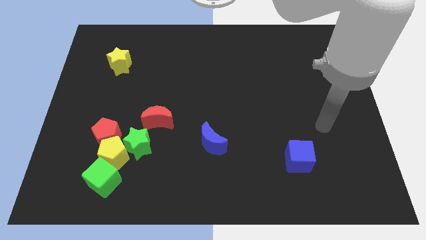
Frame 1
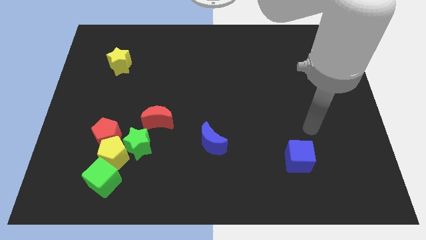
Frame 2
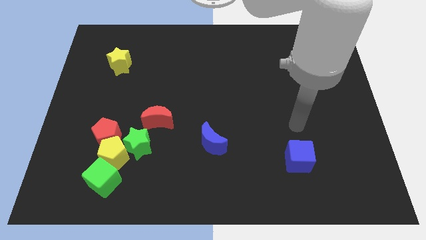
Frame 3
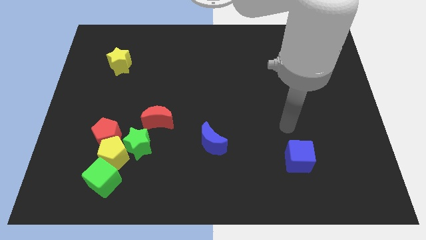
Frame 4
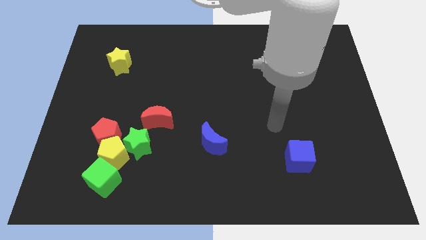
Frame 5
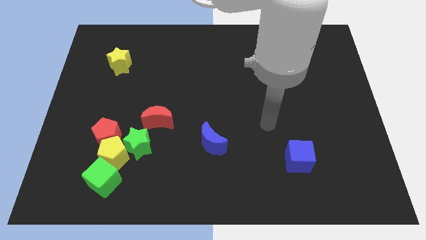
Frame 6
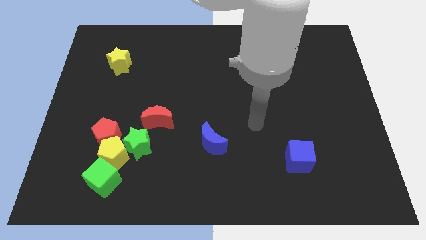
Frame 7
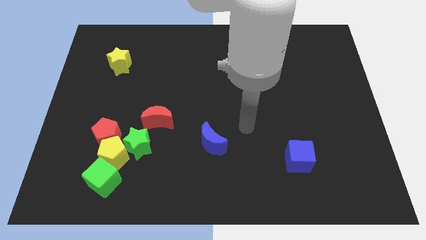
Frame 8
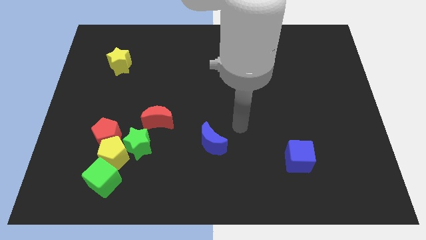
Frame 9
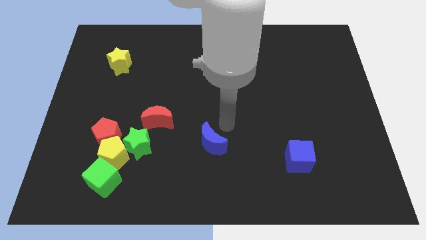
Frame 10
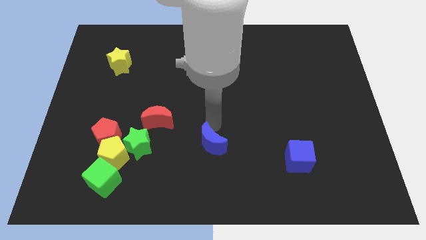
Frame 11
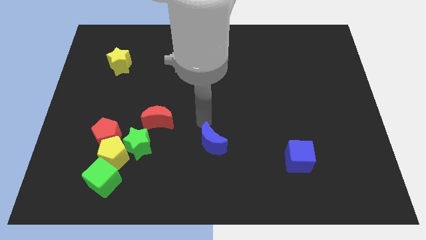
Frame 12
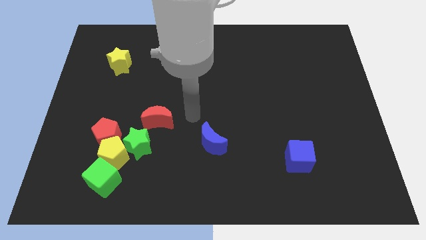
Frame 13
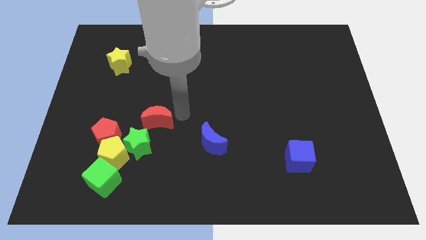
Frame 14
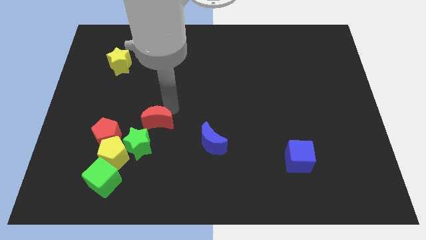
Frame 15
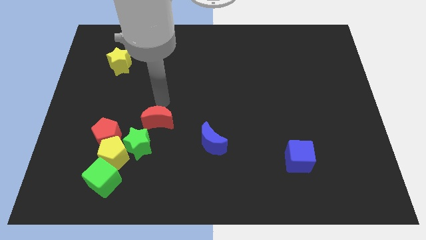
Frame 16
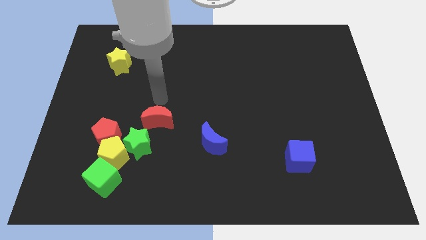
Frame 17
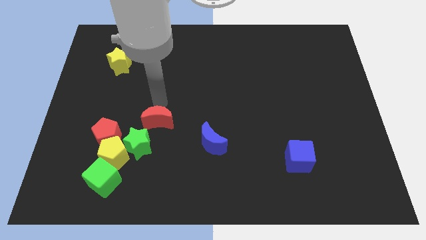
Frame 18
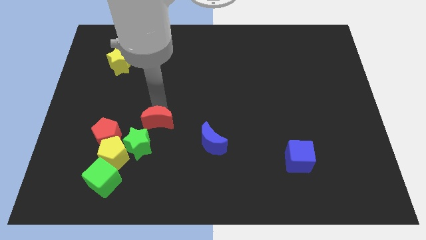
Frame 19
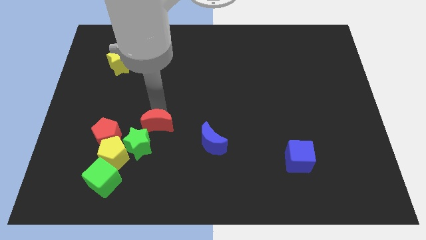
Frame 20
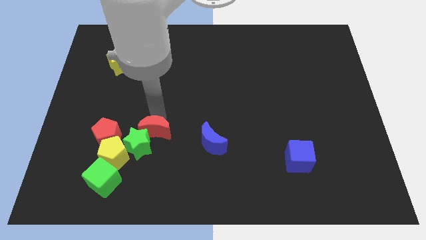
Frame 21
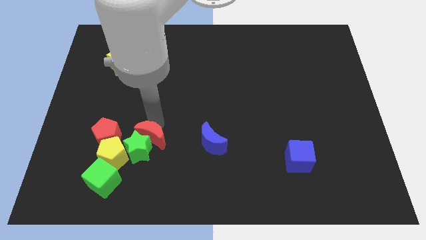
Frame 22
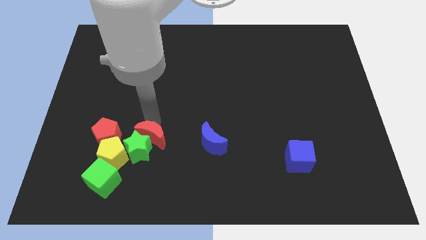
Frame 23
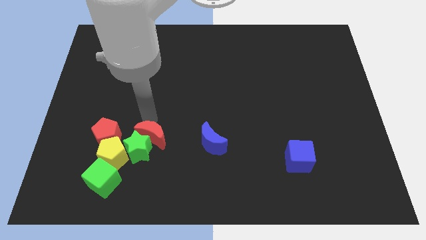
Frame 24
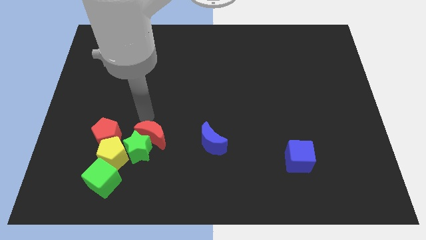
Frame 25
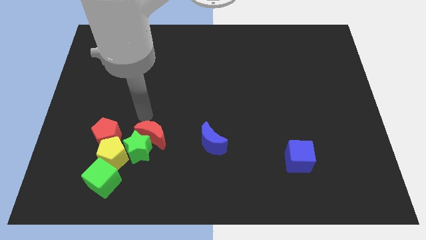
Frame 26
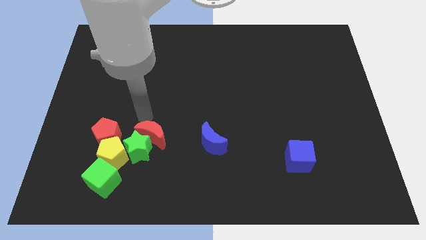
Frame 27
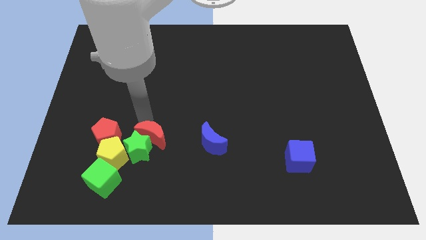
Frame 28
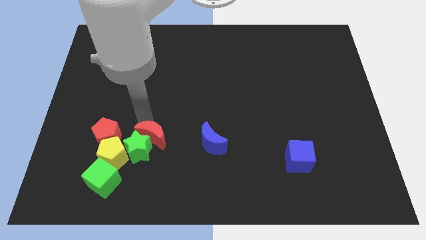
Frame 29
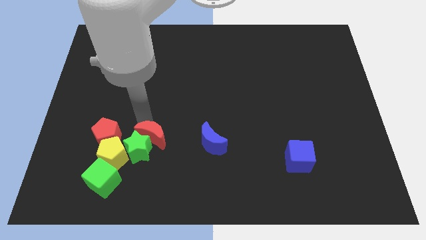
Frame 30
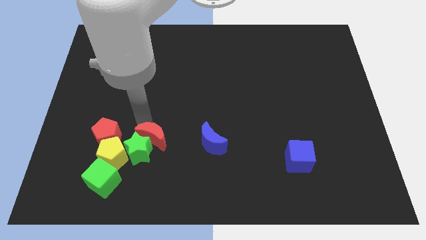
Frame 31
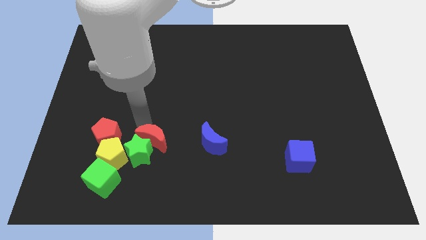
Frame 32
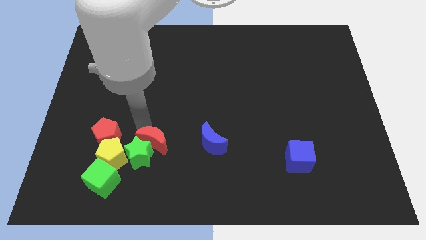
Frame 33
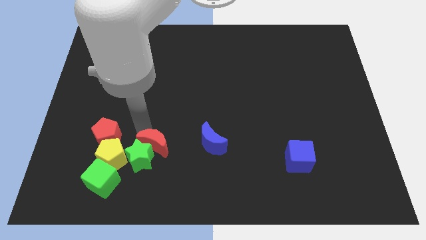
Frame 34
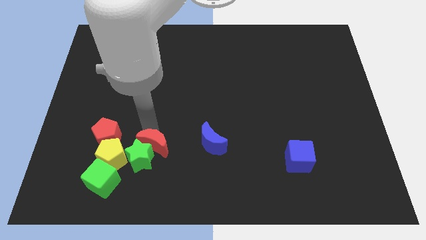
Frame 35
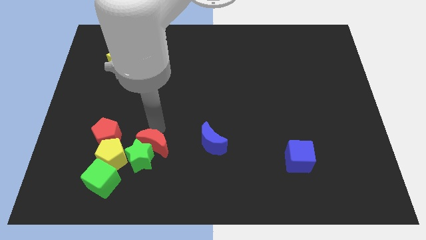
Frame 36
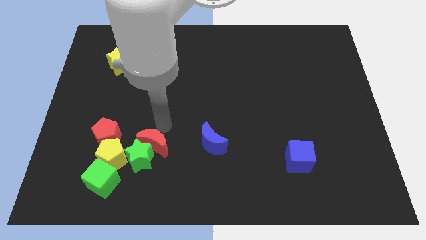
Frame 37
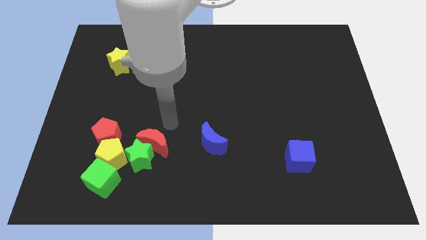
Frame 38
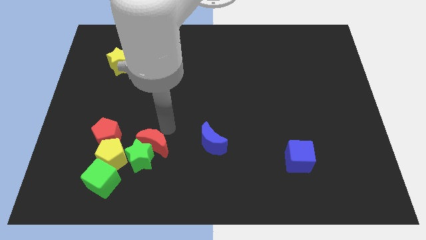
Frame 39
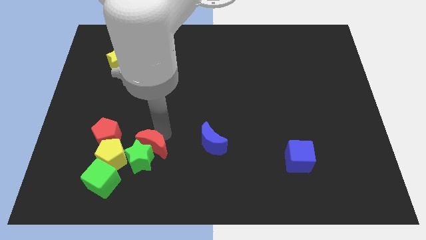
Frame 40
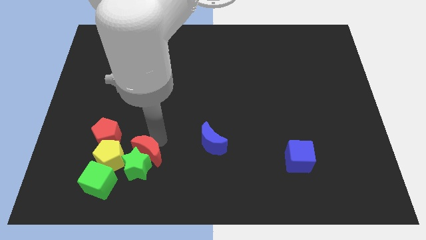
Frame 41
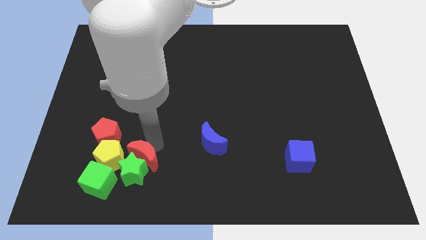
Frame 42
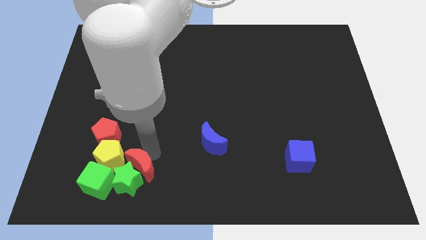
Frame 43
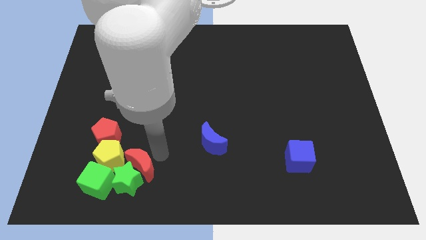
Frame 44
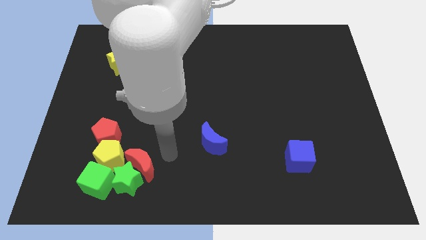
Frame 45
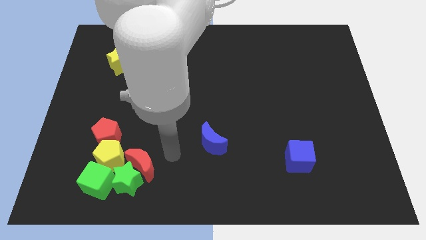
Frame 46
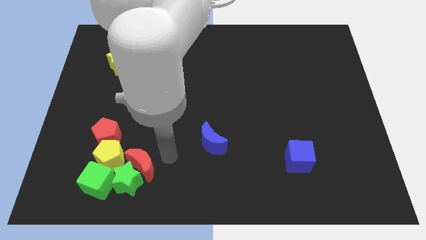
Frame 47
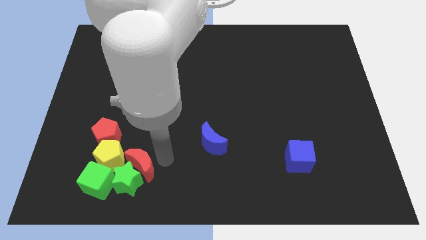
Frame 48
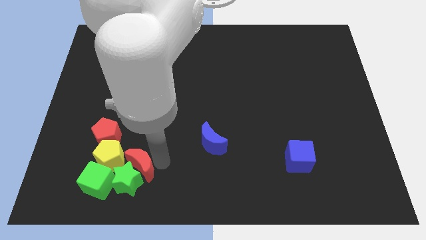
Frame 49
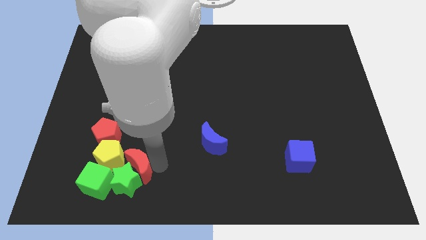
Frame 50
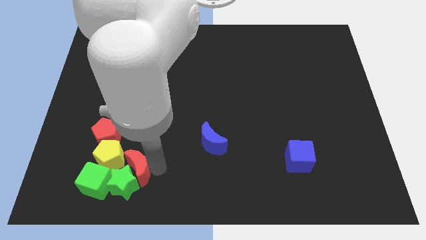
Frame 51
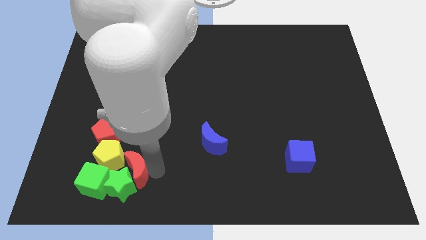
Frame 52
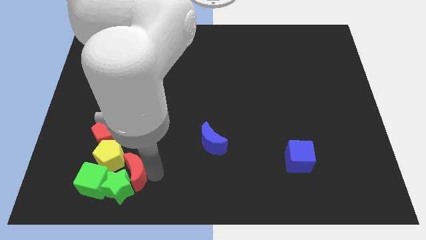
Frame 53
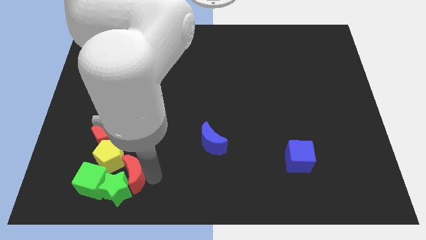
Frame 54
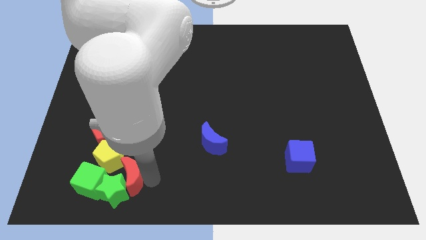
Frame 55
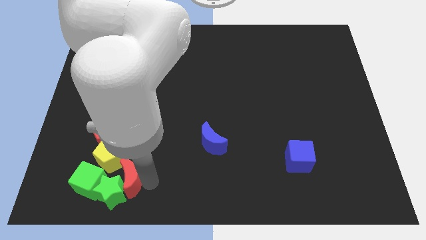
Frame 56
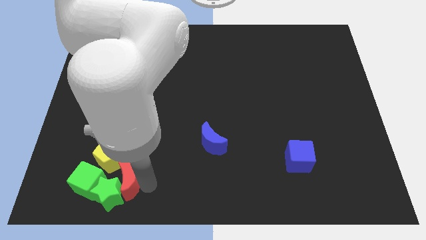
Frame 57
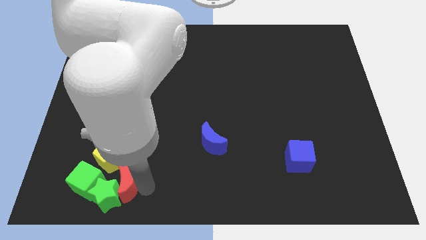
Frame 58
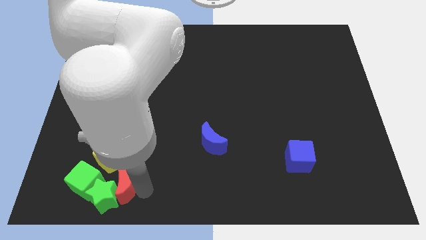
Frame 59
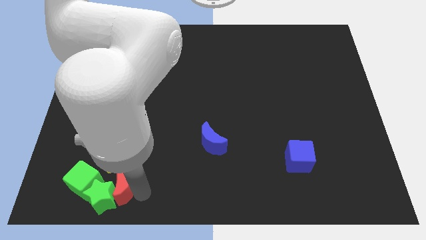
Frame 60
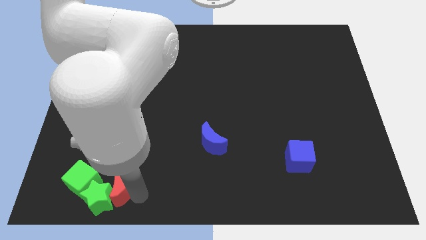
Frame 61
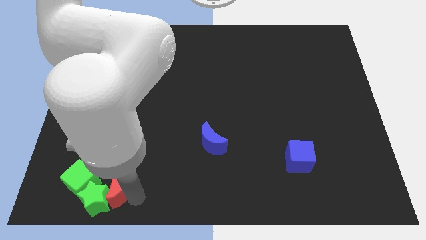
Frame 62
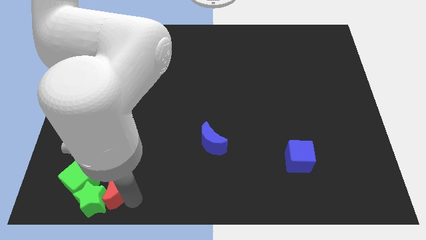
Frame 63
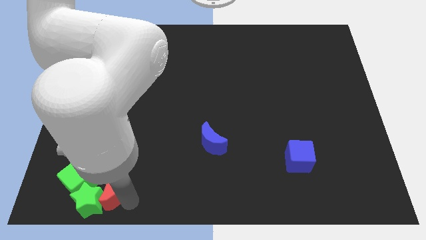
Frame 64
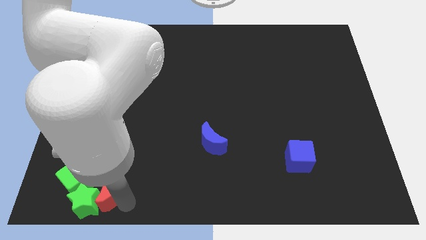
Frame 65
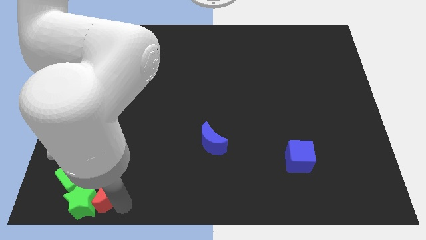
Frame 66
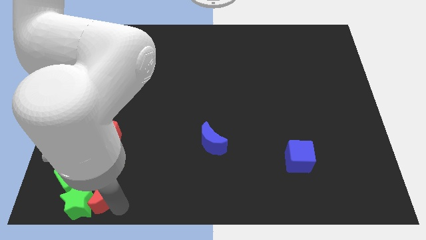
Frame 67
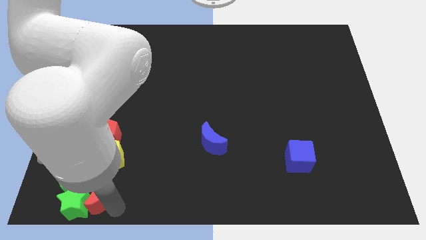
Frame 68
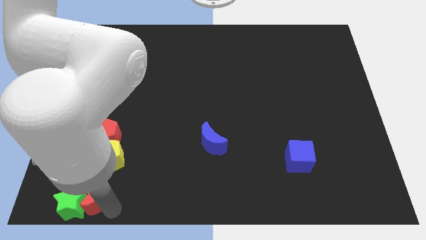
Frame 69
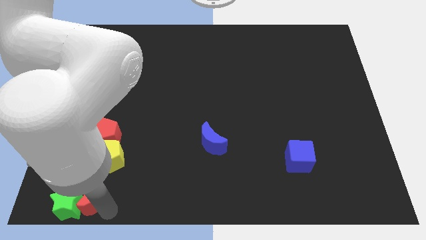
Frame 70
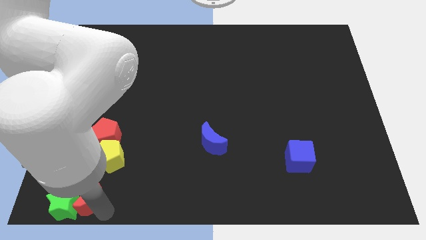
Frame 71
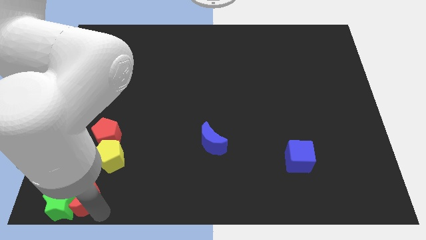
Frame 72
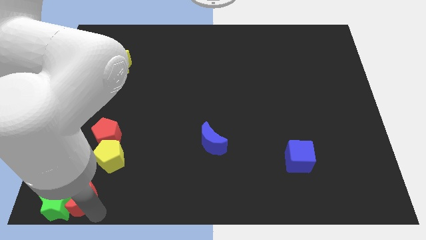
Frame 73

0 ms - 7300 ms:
push the red moon towards the green cube
